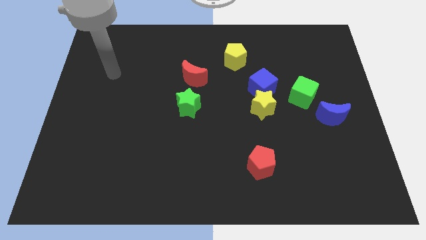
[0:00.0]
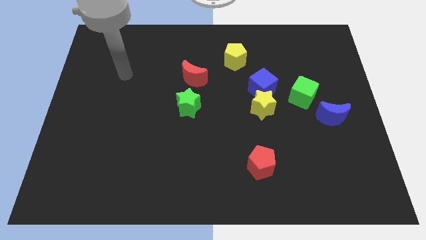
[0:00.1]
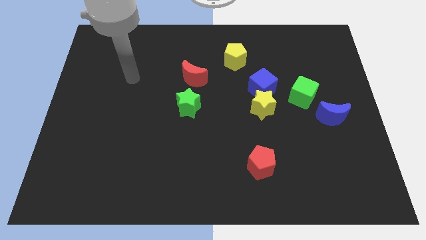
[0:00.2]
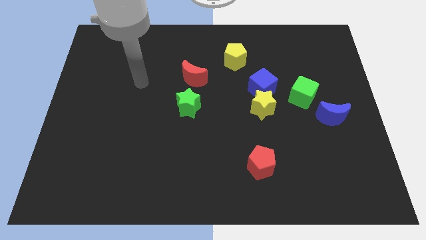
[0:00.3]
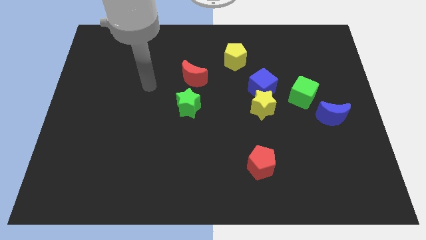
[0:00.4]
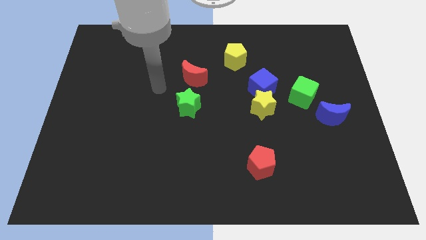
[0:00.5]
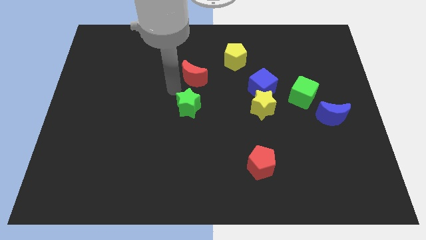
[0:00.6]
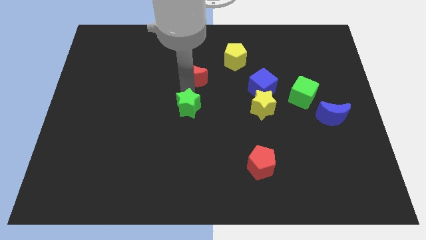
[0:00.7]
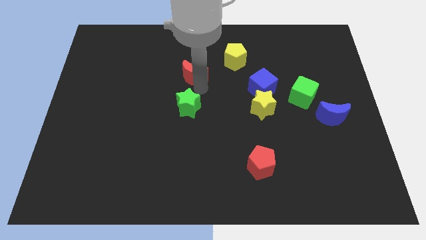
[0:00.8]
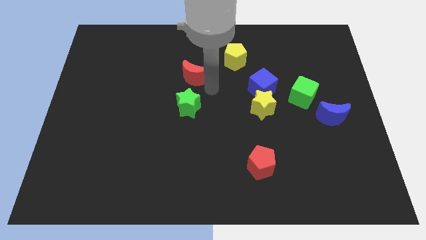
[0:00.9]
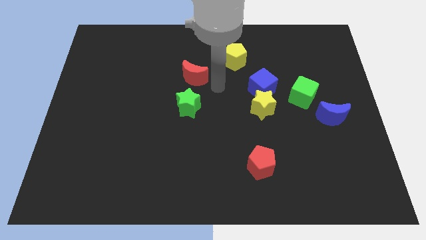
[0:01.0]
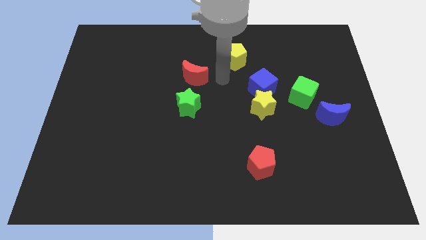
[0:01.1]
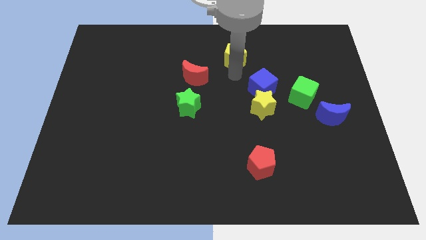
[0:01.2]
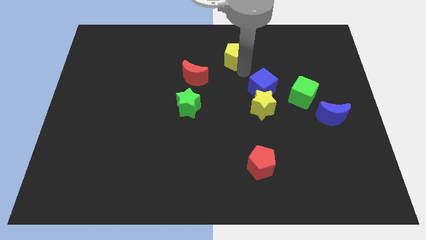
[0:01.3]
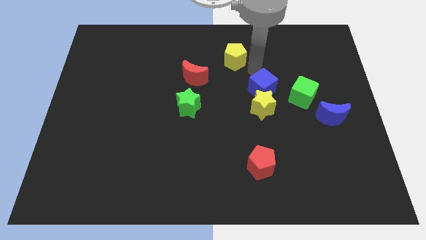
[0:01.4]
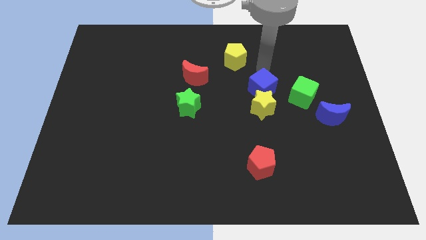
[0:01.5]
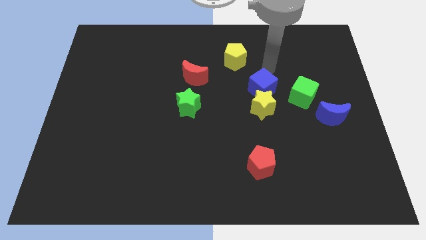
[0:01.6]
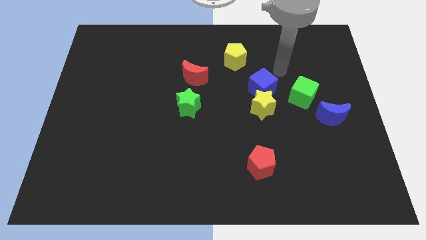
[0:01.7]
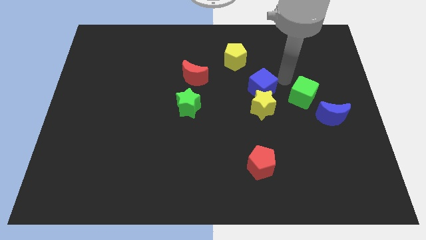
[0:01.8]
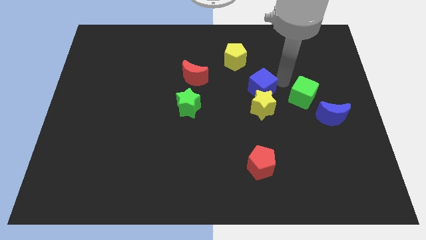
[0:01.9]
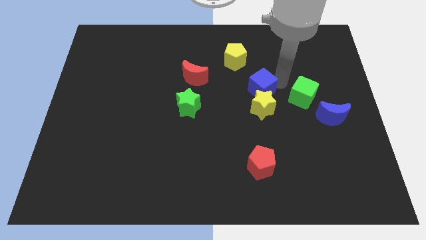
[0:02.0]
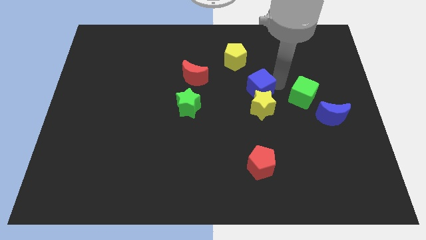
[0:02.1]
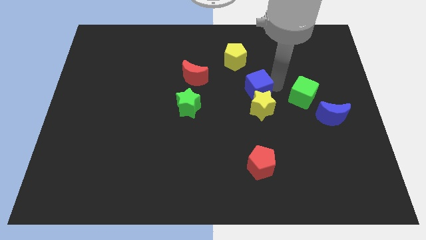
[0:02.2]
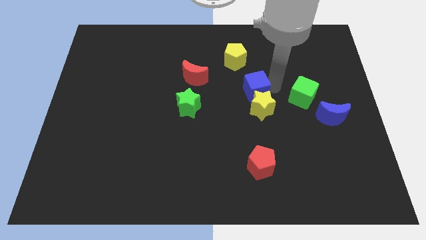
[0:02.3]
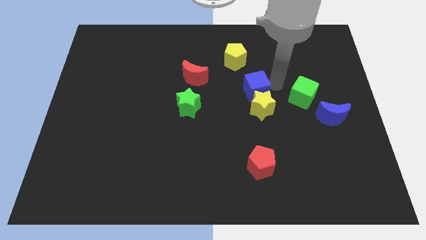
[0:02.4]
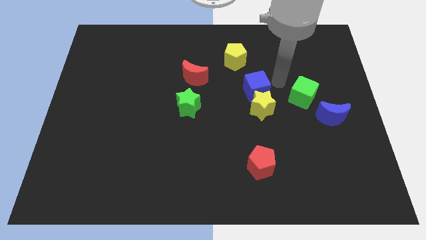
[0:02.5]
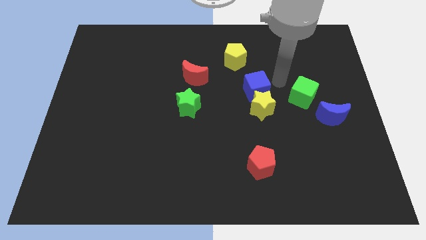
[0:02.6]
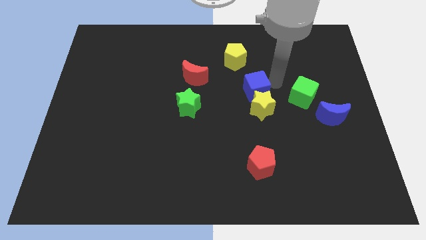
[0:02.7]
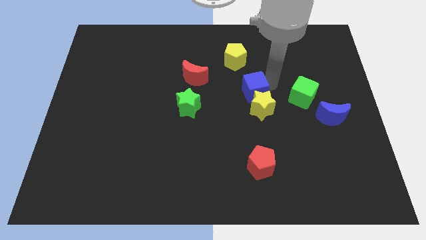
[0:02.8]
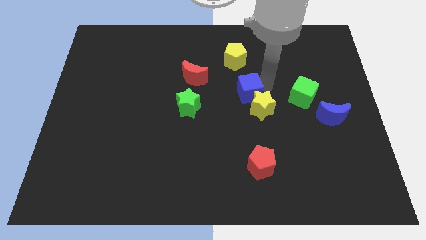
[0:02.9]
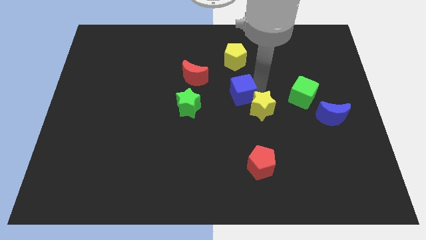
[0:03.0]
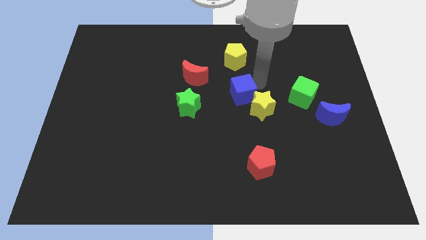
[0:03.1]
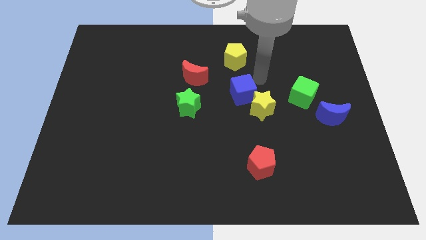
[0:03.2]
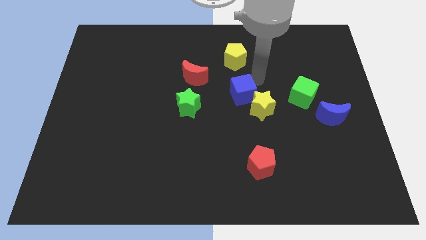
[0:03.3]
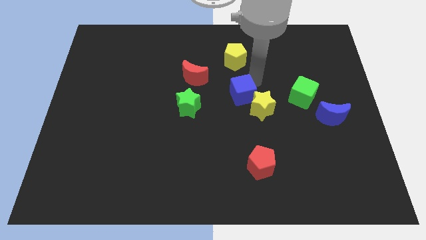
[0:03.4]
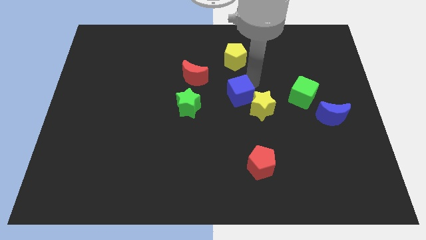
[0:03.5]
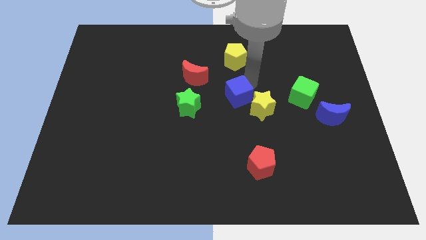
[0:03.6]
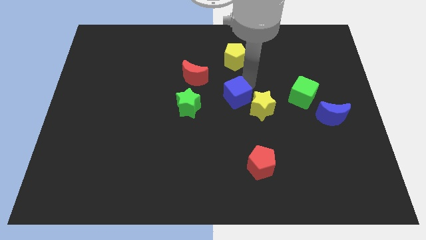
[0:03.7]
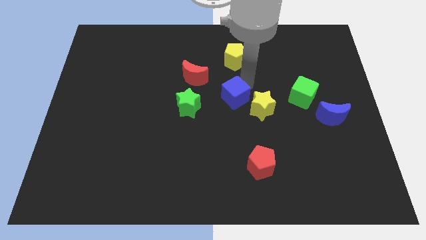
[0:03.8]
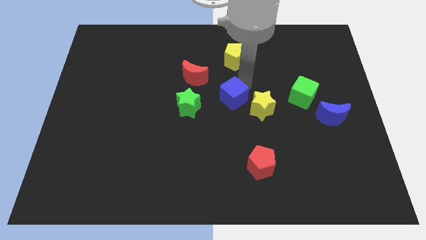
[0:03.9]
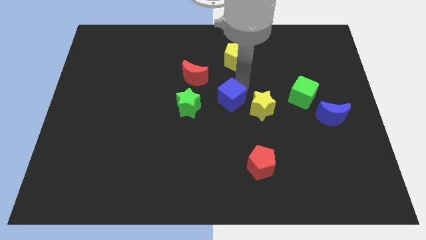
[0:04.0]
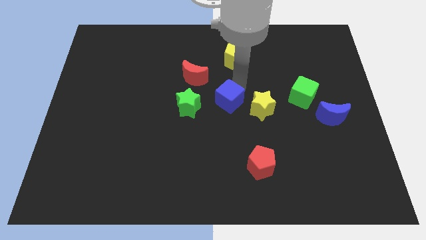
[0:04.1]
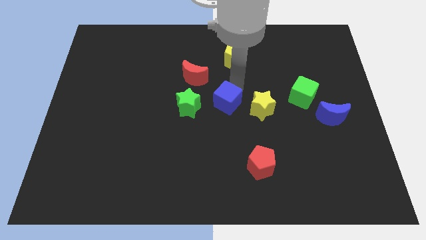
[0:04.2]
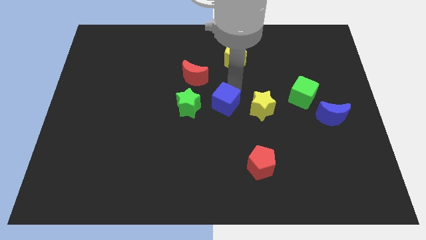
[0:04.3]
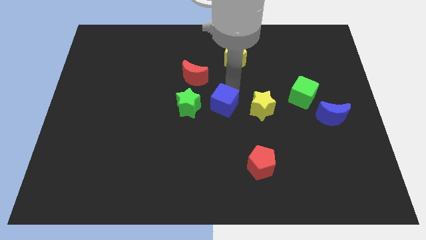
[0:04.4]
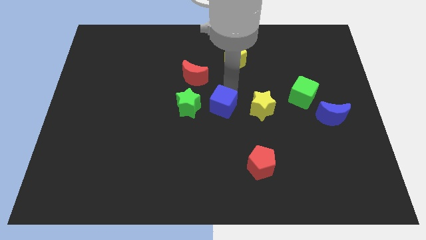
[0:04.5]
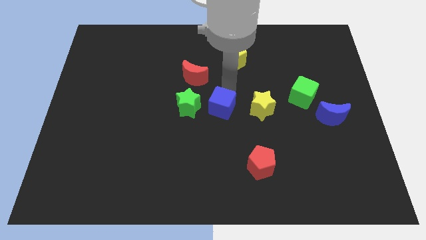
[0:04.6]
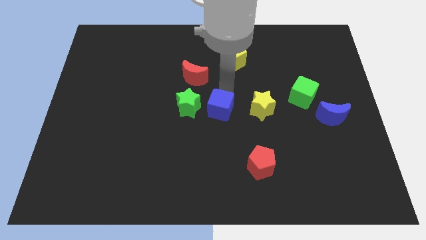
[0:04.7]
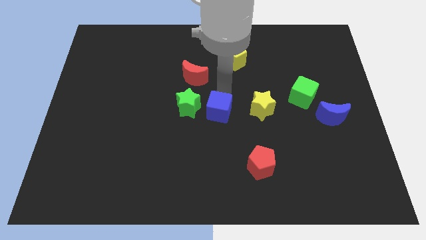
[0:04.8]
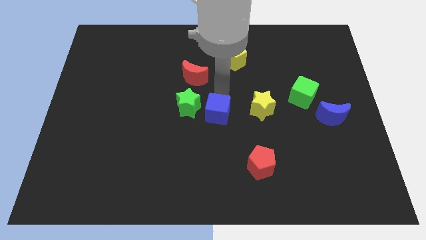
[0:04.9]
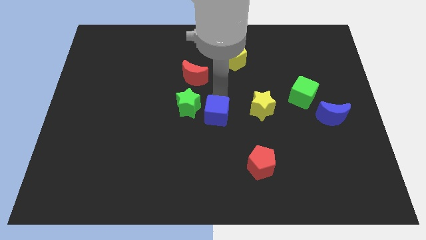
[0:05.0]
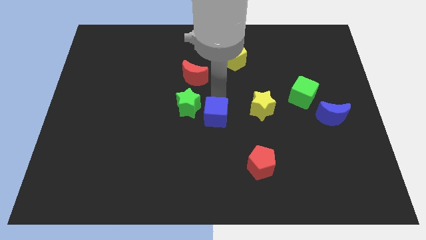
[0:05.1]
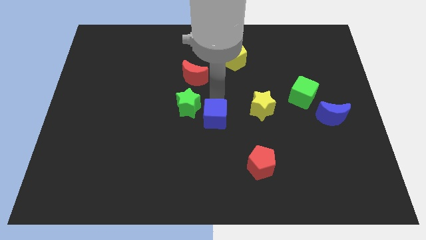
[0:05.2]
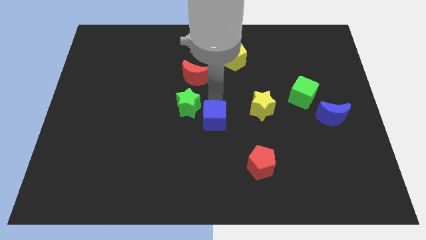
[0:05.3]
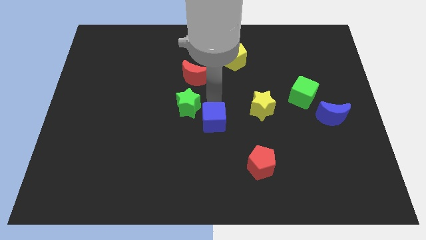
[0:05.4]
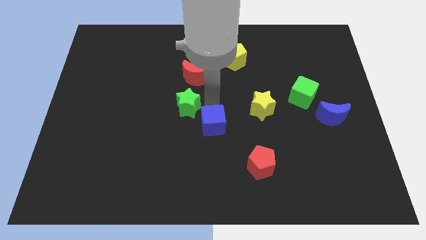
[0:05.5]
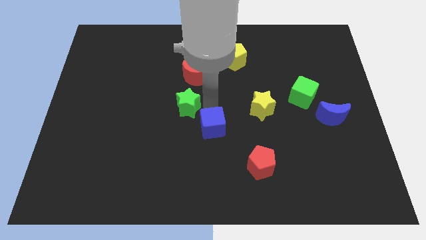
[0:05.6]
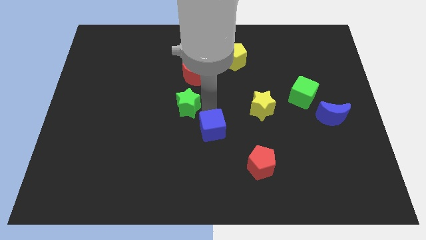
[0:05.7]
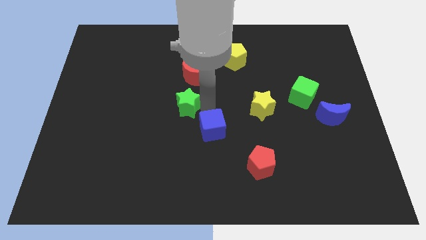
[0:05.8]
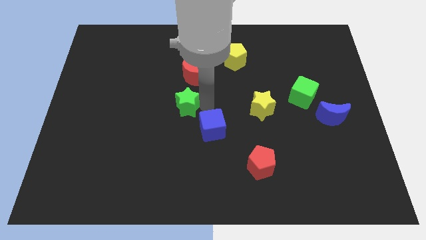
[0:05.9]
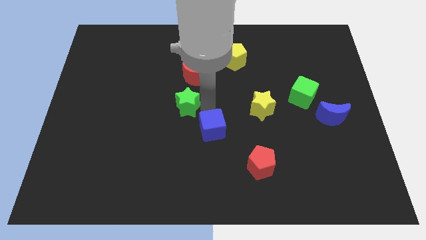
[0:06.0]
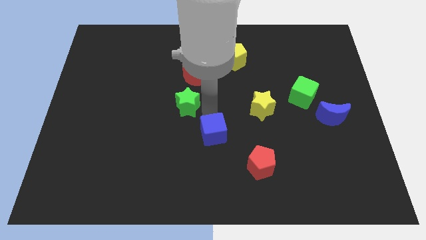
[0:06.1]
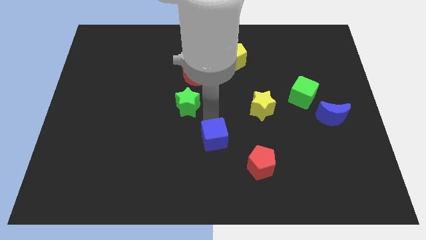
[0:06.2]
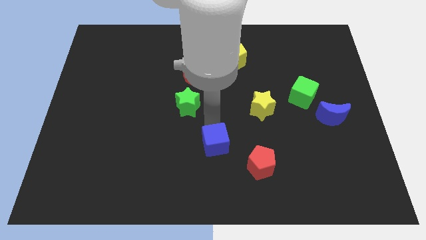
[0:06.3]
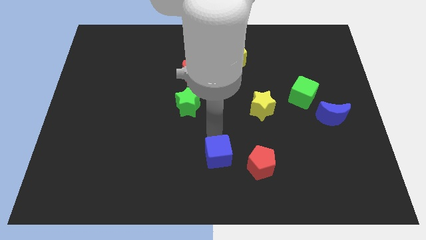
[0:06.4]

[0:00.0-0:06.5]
push the blue cube to the bottom side

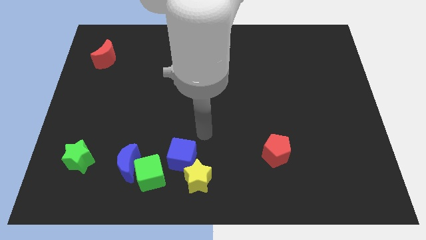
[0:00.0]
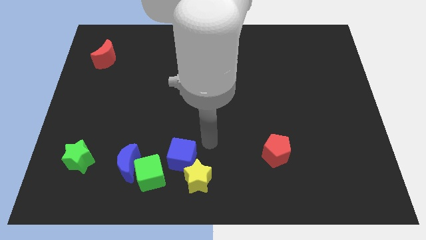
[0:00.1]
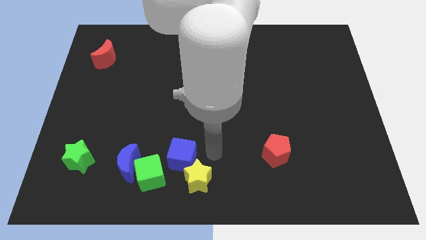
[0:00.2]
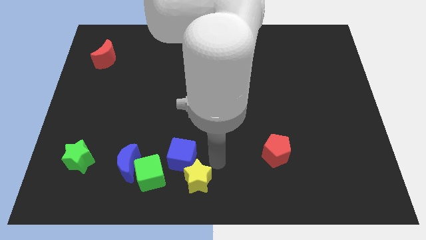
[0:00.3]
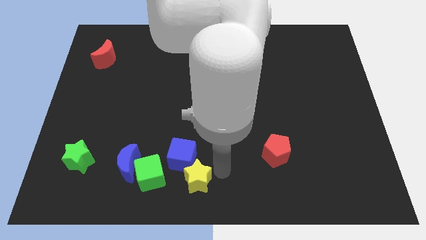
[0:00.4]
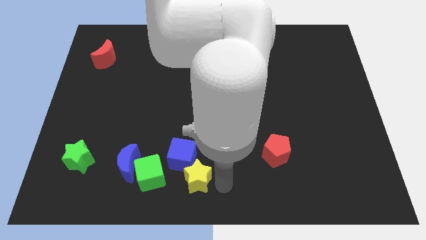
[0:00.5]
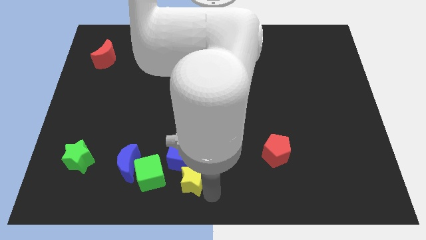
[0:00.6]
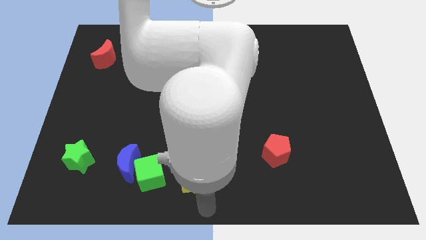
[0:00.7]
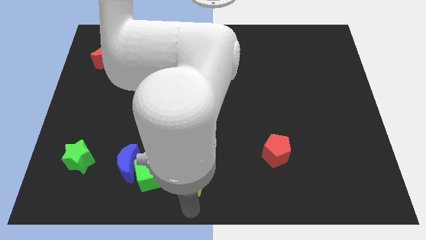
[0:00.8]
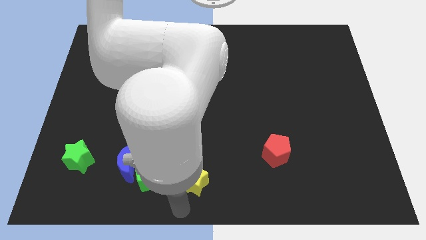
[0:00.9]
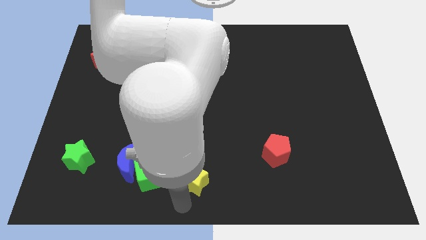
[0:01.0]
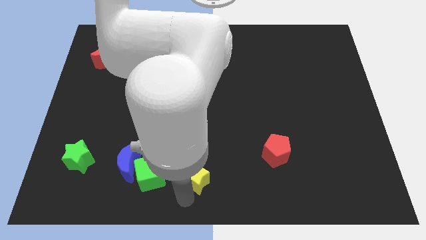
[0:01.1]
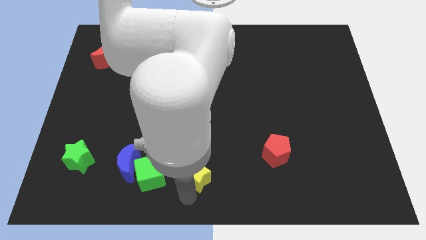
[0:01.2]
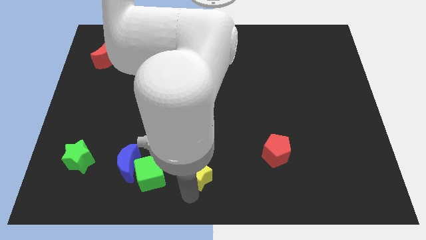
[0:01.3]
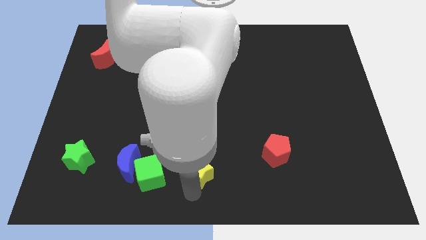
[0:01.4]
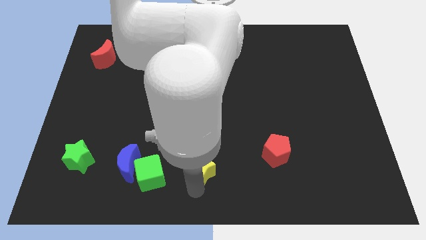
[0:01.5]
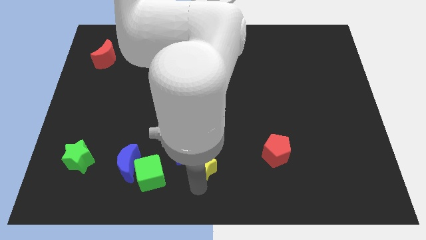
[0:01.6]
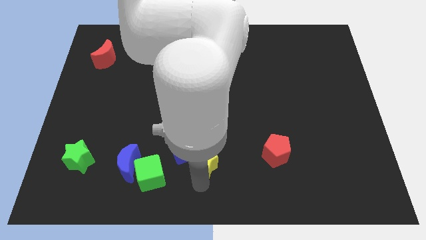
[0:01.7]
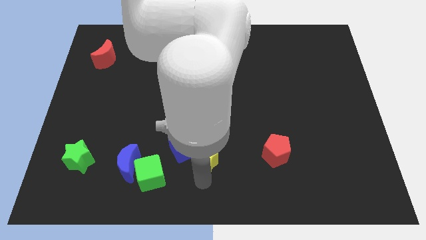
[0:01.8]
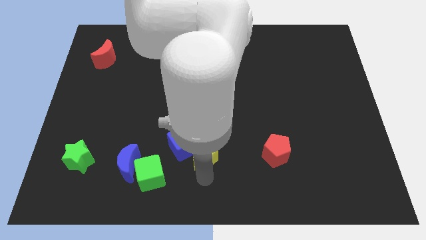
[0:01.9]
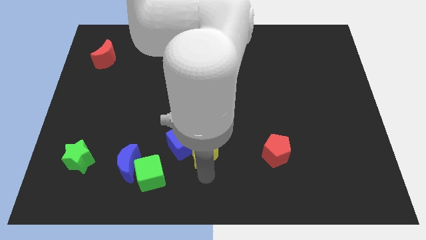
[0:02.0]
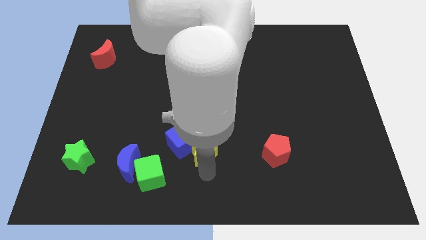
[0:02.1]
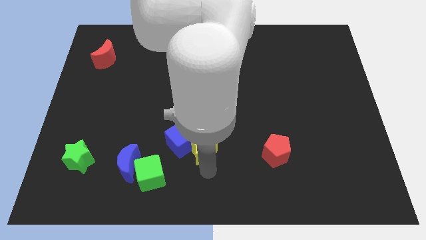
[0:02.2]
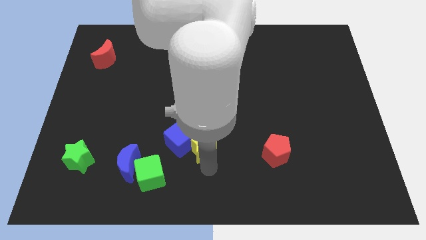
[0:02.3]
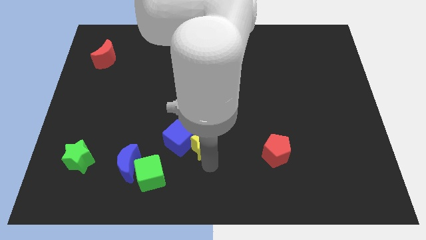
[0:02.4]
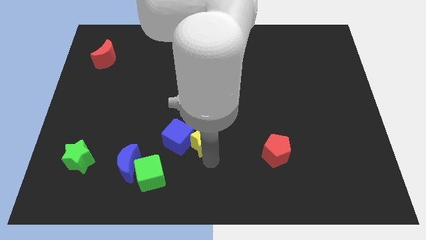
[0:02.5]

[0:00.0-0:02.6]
slide the yellow star to the middle of the board
